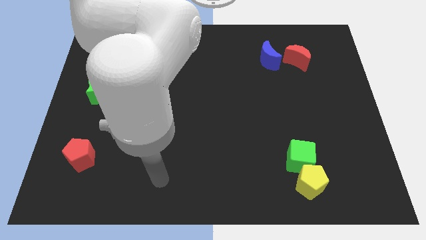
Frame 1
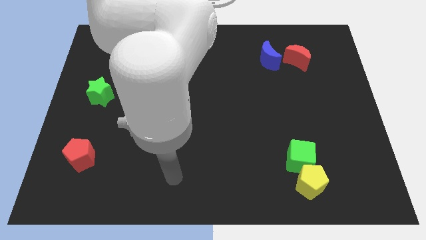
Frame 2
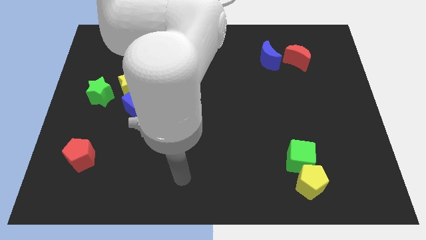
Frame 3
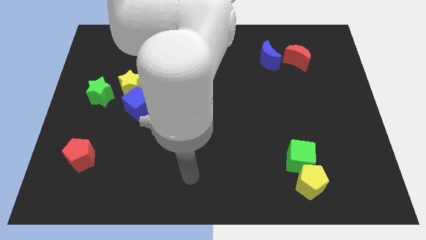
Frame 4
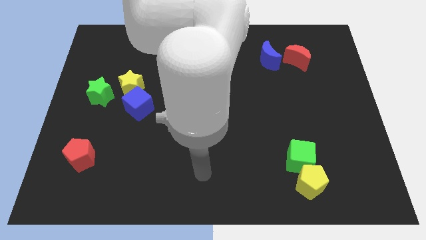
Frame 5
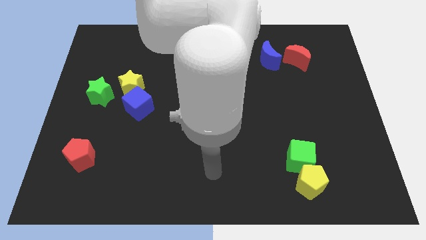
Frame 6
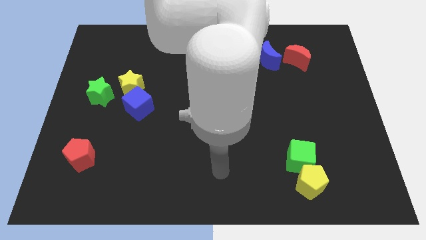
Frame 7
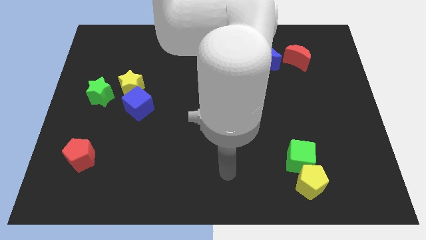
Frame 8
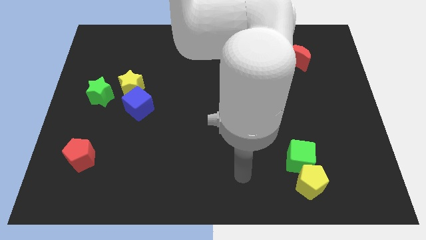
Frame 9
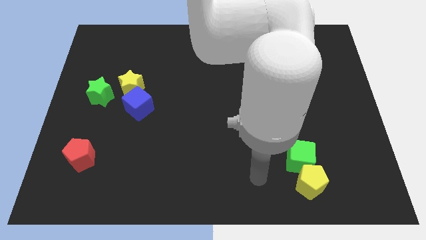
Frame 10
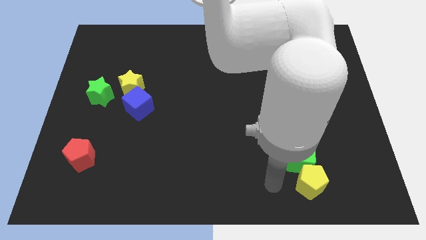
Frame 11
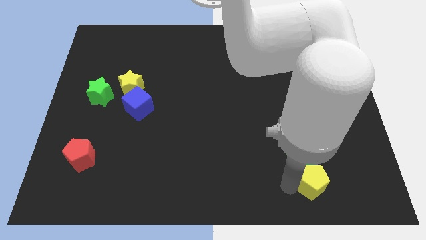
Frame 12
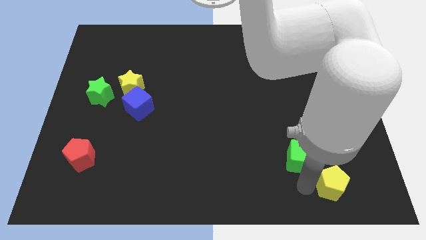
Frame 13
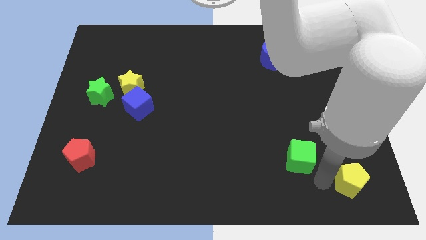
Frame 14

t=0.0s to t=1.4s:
move the green cube away from the yellow pentagon

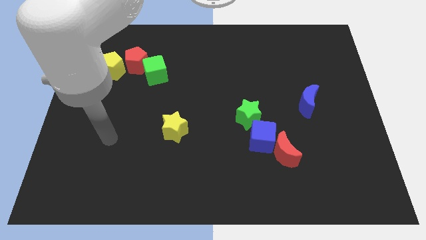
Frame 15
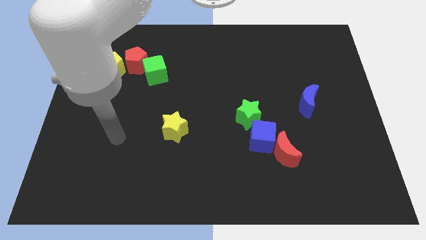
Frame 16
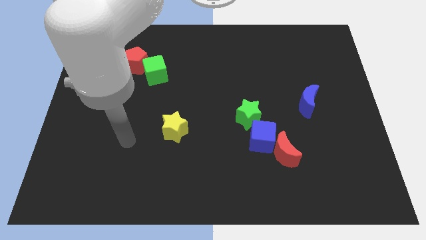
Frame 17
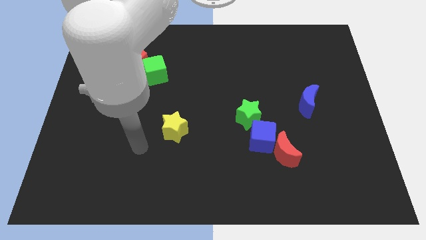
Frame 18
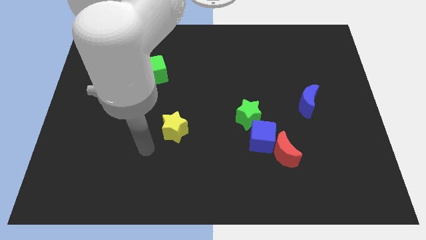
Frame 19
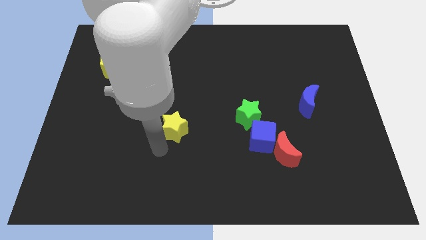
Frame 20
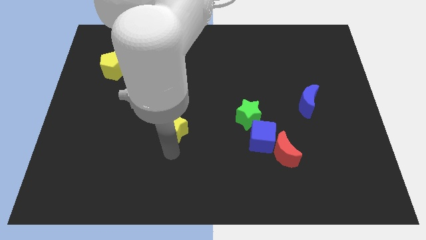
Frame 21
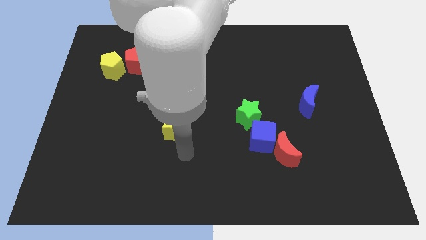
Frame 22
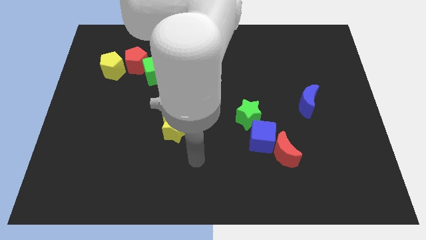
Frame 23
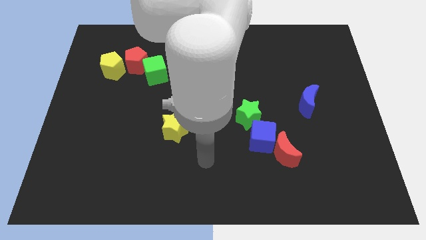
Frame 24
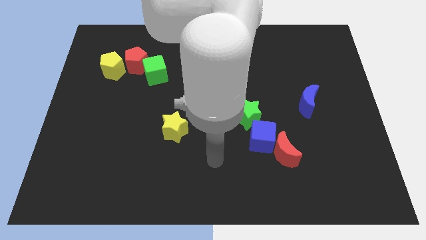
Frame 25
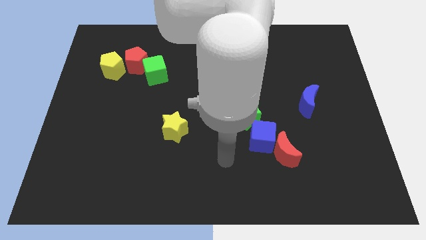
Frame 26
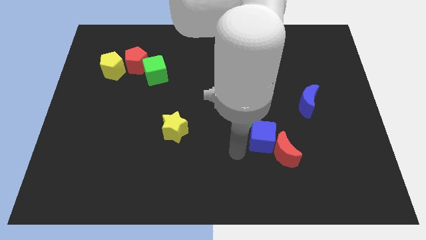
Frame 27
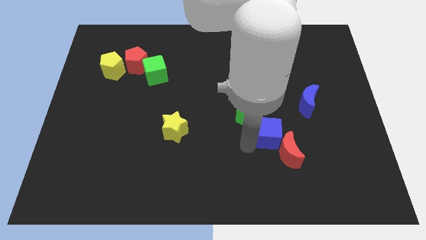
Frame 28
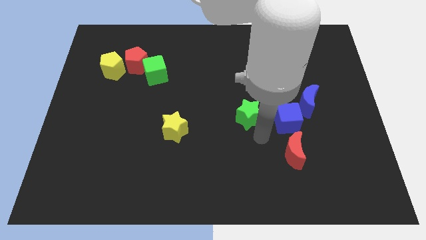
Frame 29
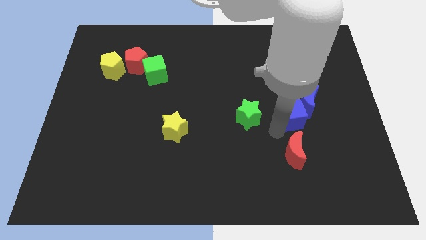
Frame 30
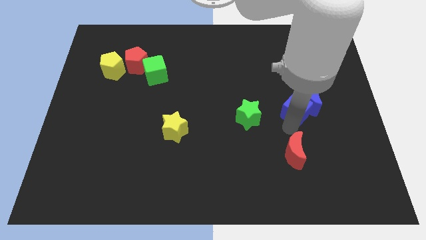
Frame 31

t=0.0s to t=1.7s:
move the red moon away from the blue cube

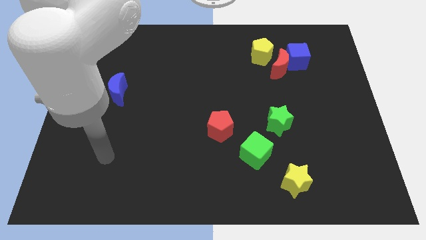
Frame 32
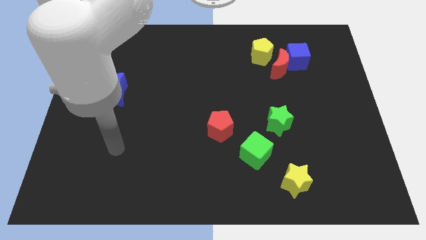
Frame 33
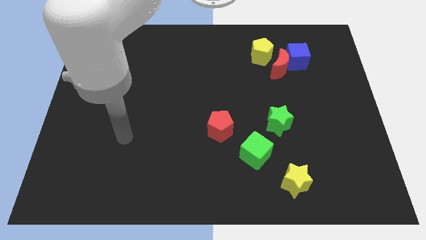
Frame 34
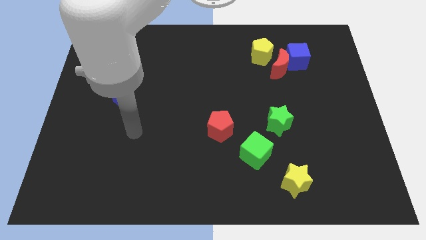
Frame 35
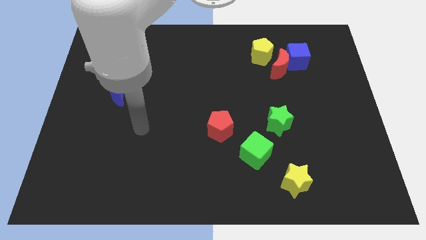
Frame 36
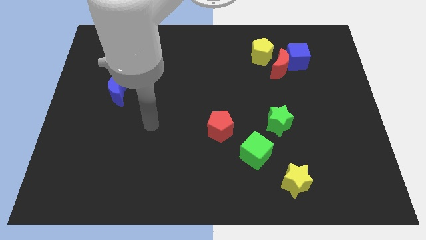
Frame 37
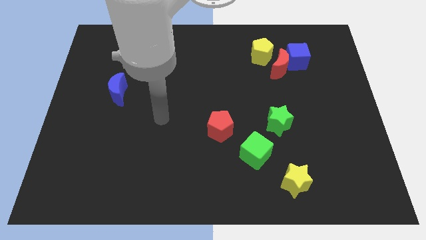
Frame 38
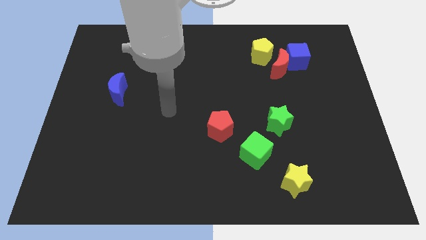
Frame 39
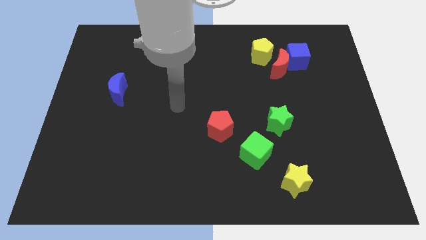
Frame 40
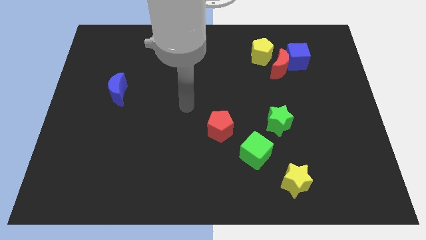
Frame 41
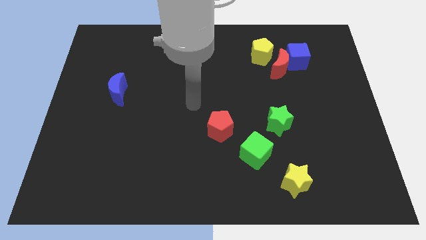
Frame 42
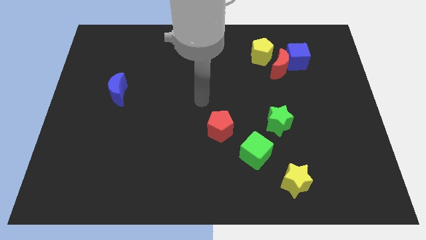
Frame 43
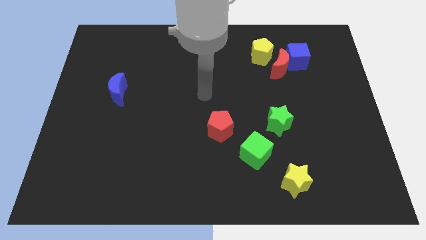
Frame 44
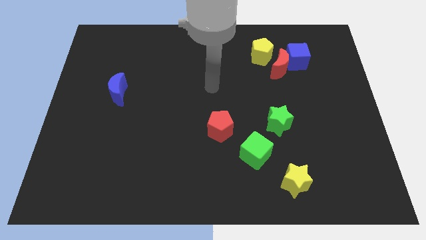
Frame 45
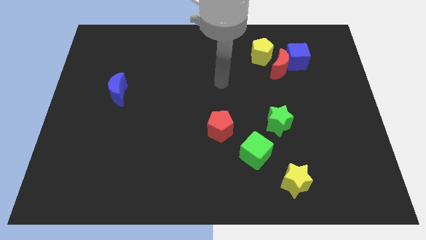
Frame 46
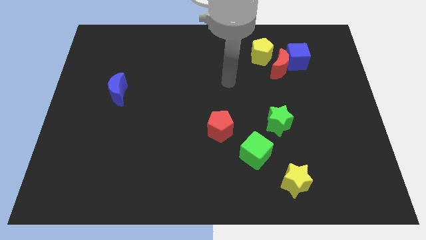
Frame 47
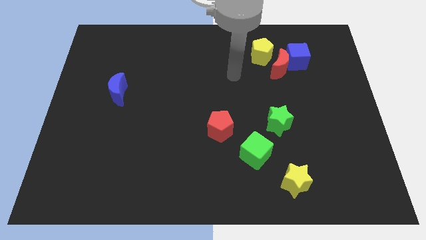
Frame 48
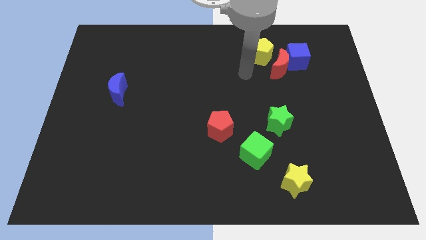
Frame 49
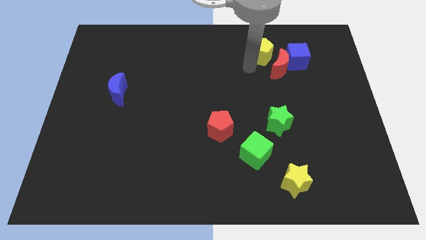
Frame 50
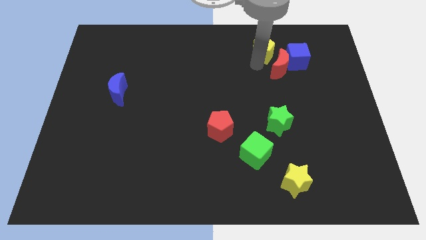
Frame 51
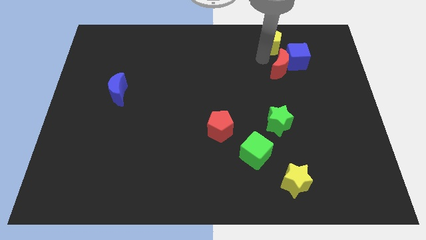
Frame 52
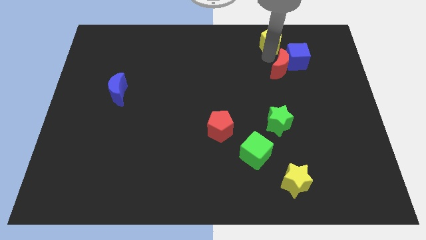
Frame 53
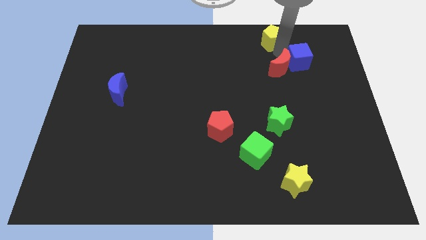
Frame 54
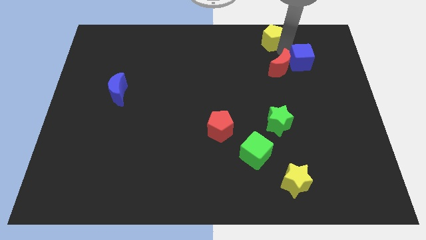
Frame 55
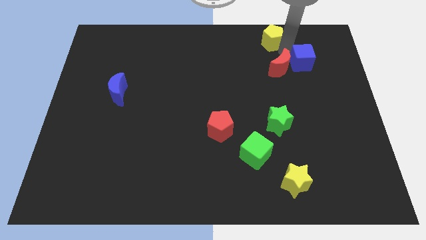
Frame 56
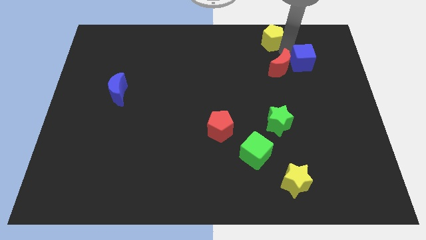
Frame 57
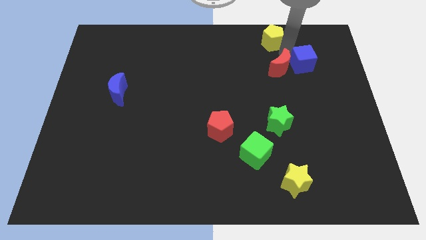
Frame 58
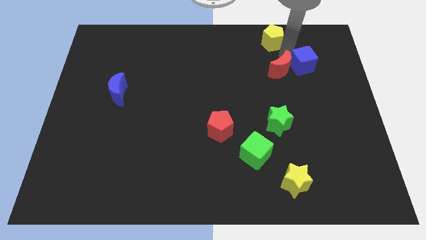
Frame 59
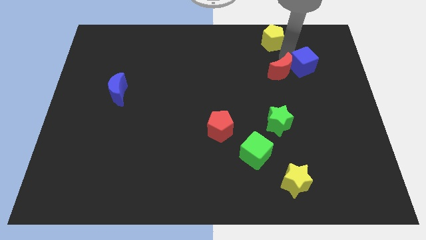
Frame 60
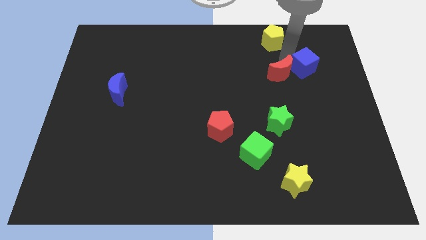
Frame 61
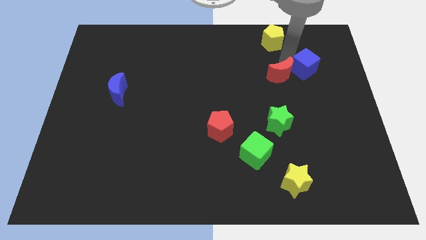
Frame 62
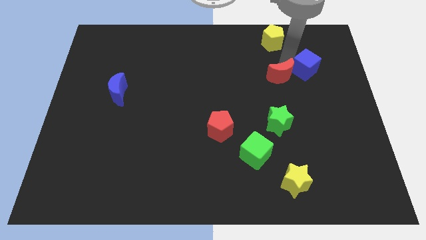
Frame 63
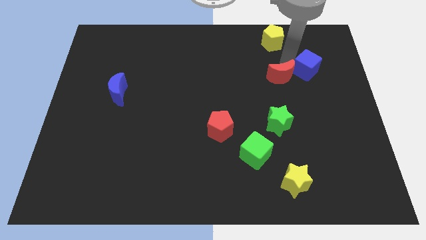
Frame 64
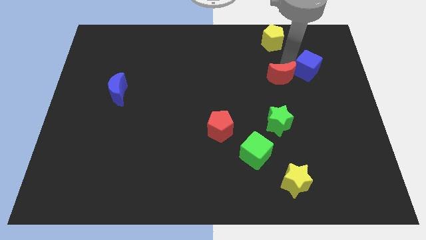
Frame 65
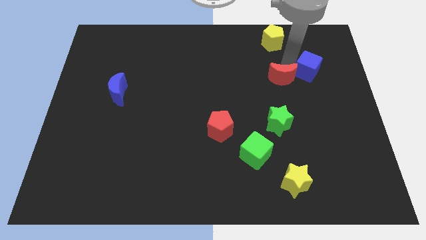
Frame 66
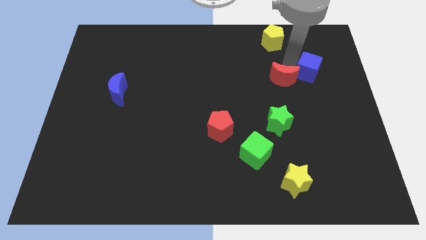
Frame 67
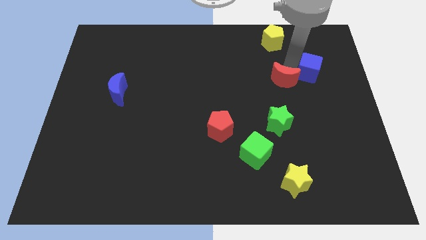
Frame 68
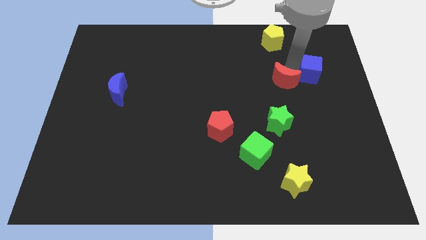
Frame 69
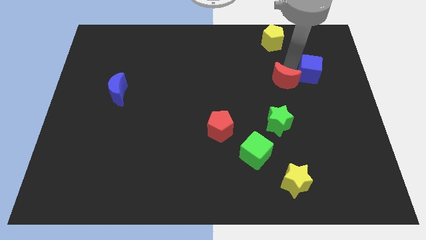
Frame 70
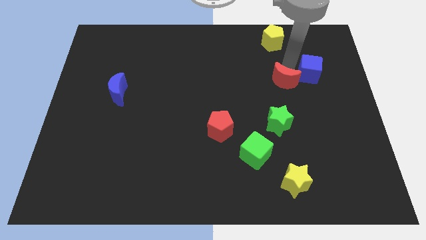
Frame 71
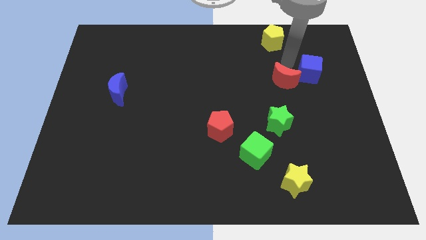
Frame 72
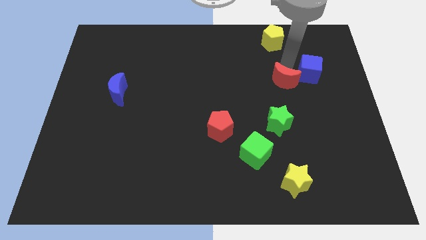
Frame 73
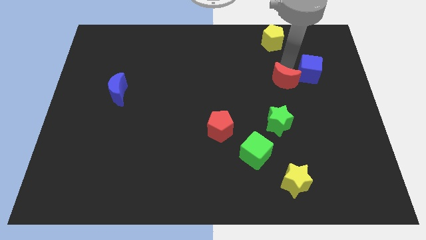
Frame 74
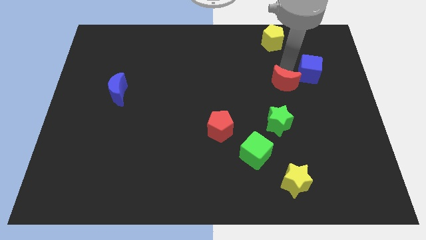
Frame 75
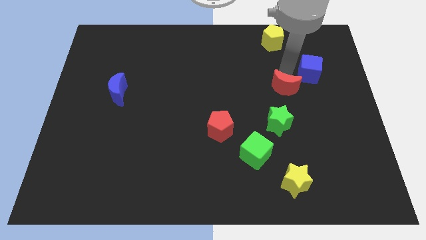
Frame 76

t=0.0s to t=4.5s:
move the red moon away from the blue cube and yellow pentagon

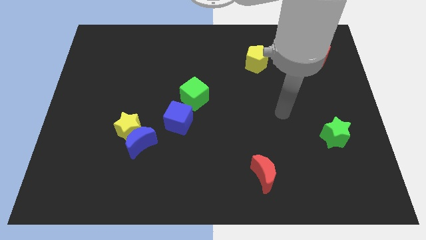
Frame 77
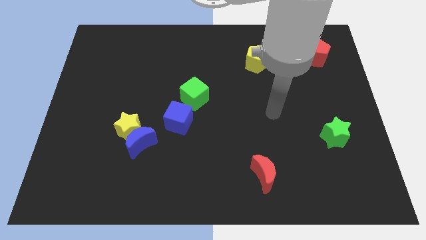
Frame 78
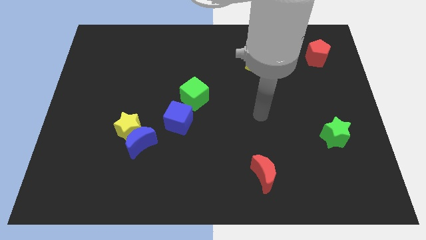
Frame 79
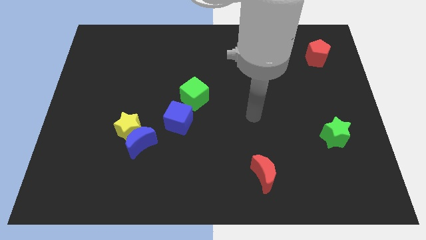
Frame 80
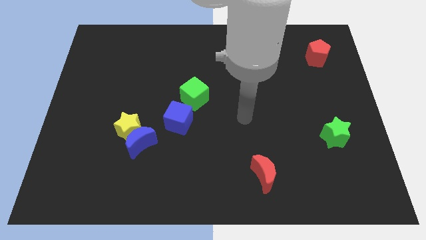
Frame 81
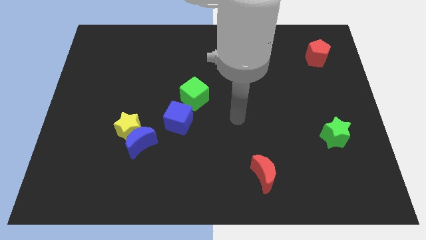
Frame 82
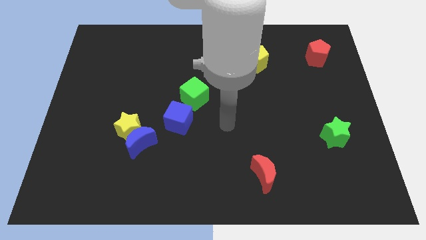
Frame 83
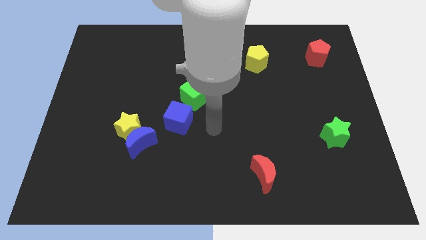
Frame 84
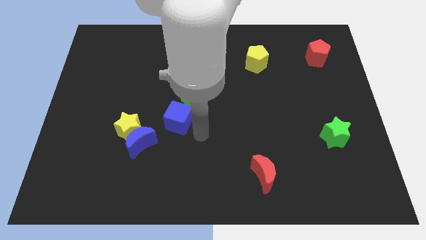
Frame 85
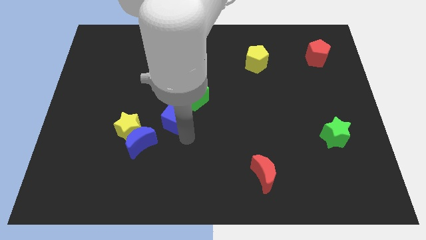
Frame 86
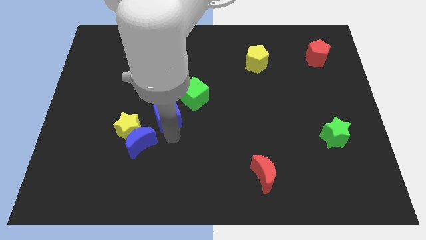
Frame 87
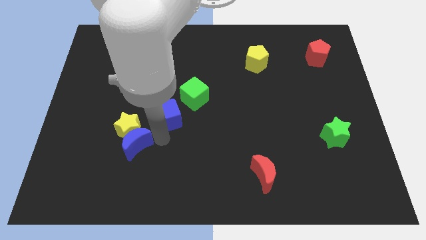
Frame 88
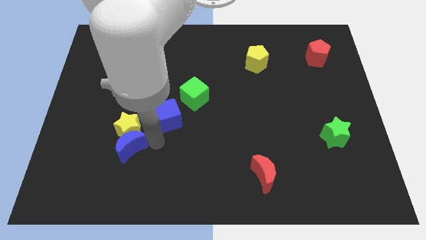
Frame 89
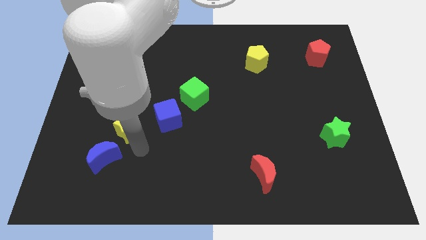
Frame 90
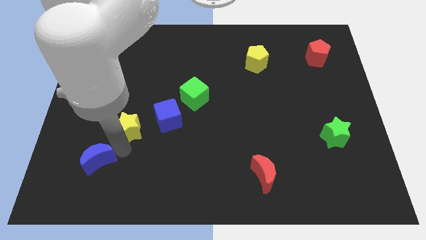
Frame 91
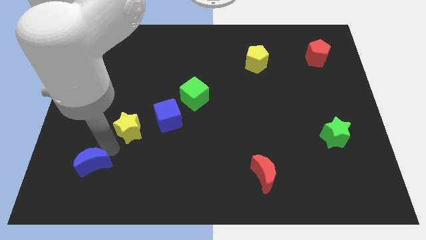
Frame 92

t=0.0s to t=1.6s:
separate the yellow star from the blue moon

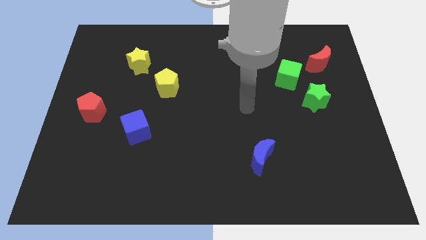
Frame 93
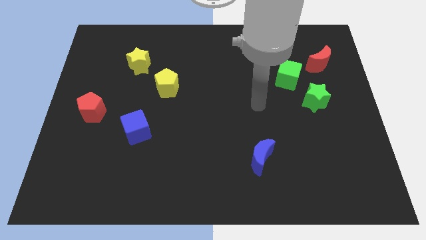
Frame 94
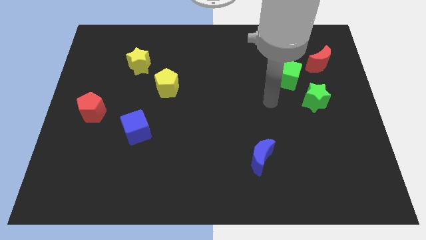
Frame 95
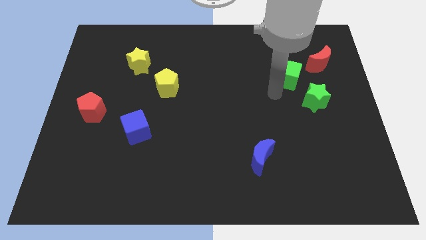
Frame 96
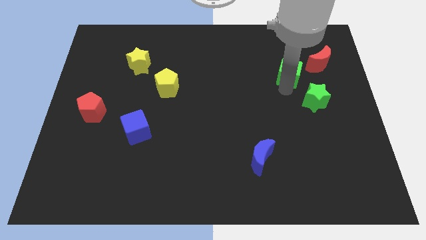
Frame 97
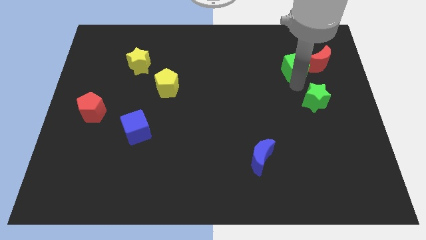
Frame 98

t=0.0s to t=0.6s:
pull the green star apart from the green cube
